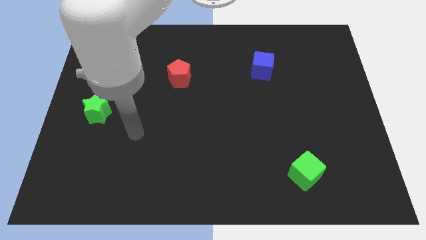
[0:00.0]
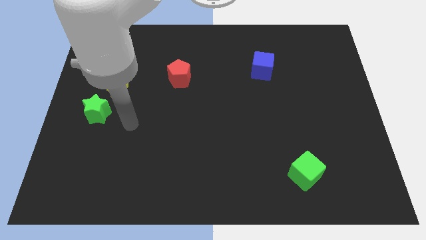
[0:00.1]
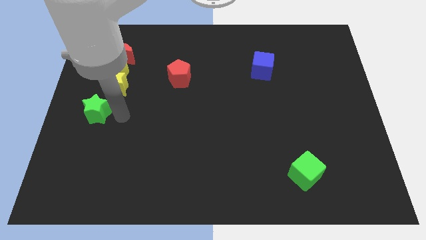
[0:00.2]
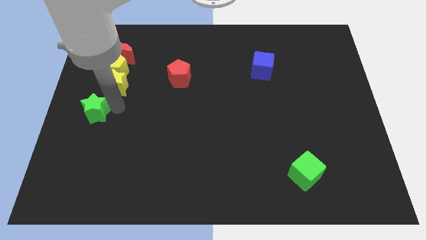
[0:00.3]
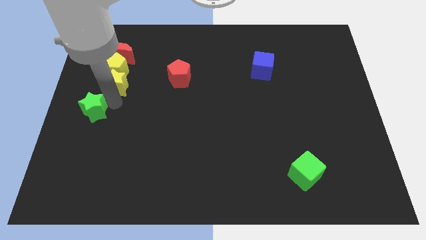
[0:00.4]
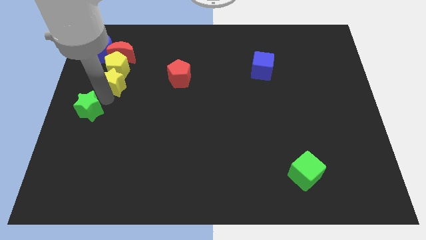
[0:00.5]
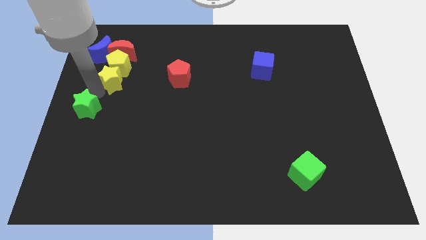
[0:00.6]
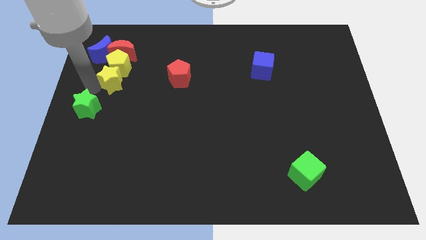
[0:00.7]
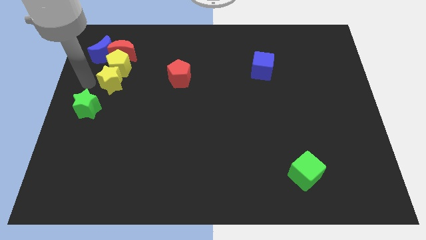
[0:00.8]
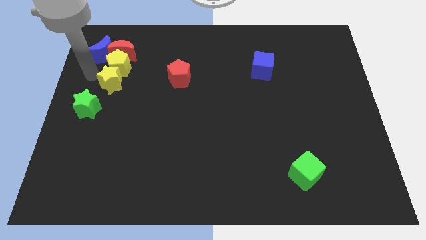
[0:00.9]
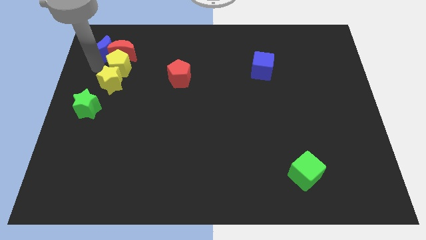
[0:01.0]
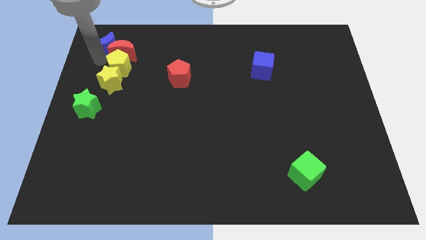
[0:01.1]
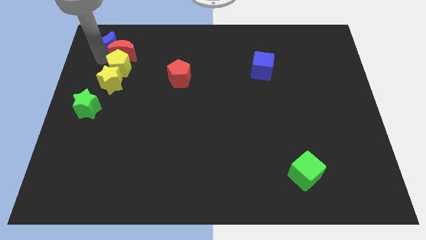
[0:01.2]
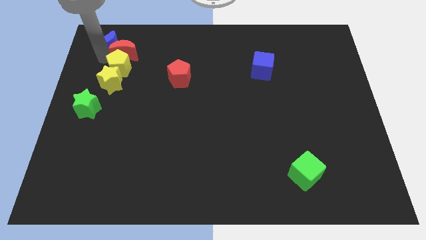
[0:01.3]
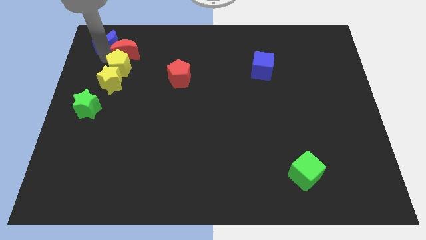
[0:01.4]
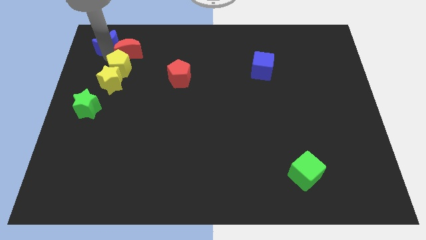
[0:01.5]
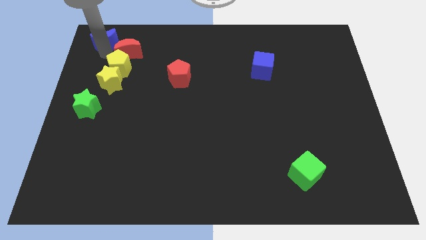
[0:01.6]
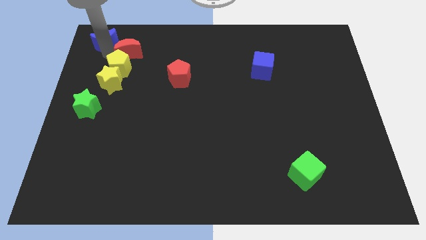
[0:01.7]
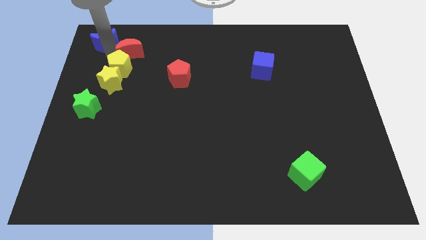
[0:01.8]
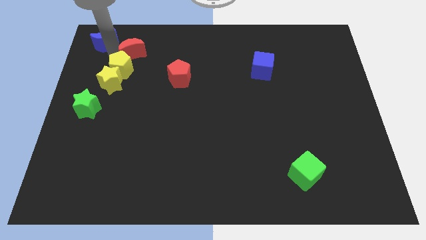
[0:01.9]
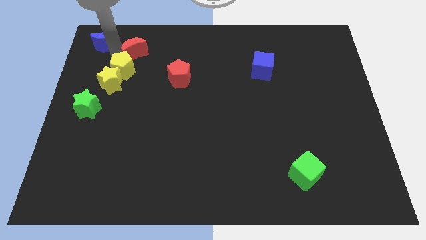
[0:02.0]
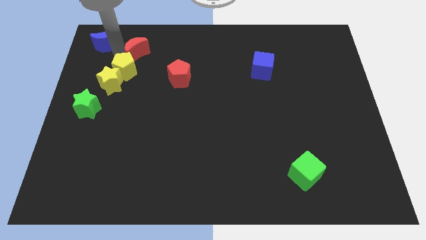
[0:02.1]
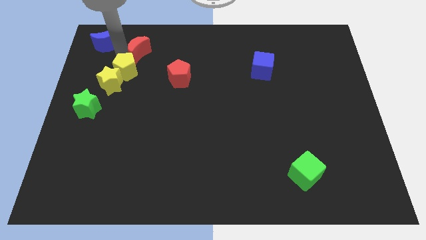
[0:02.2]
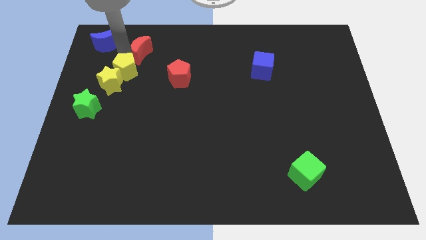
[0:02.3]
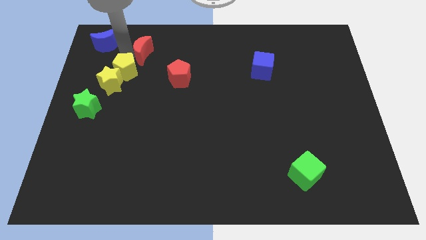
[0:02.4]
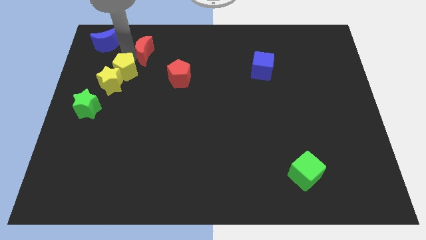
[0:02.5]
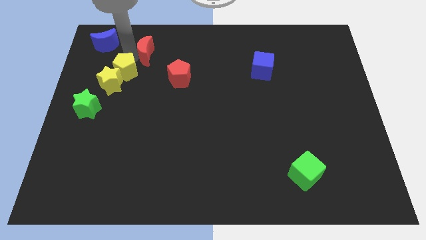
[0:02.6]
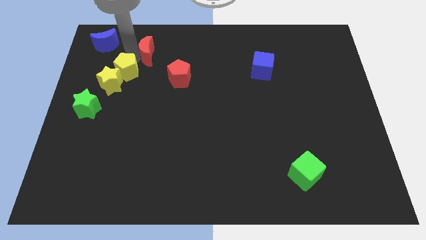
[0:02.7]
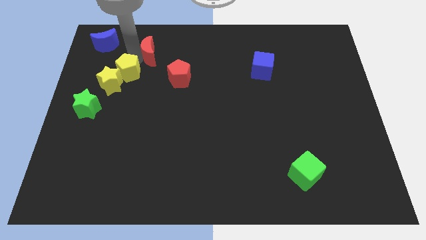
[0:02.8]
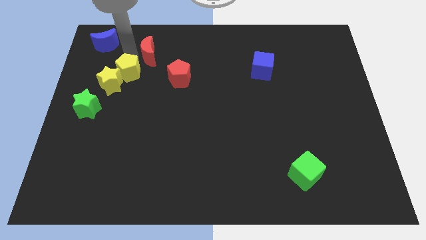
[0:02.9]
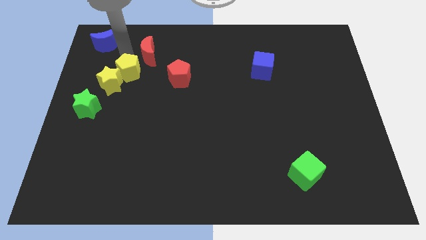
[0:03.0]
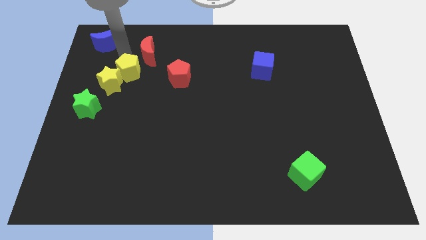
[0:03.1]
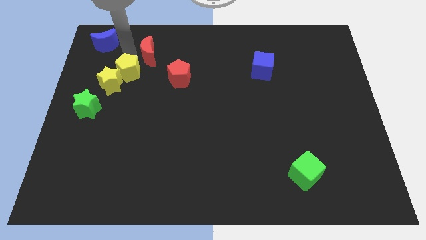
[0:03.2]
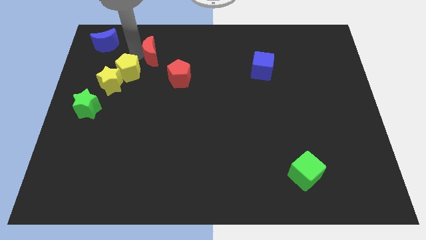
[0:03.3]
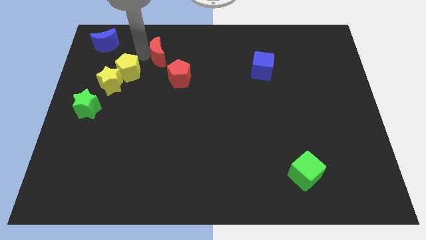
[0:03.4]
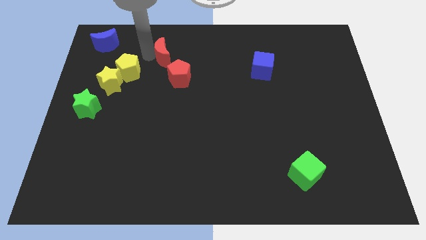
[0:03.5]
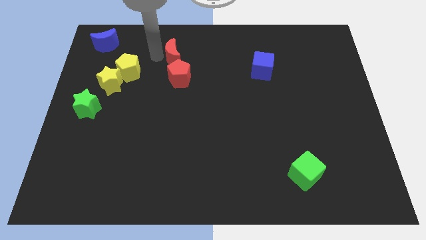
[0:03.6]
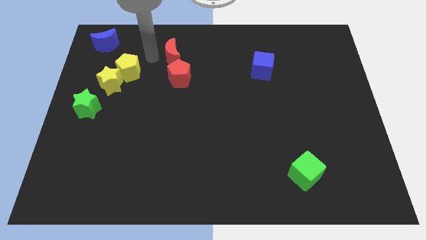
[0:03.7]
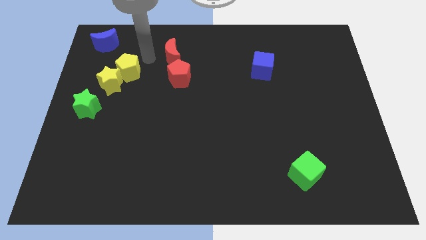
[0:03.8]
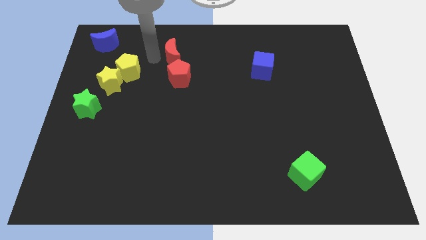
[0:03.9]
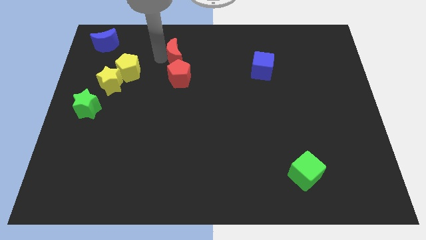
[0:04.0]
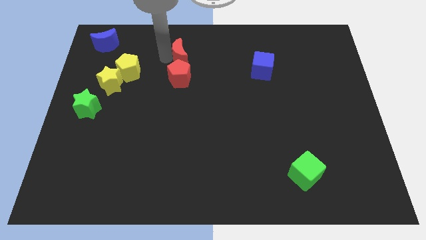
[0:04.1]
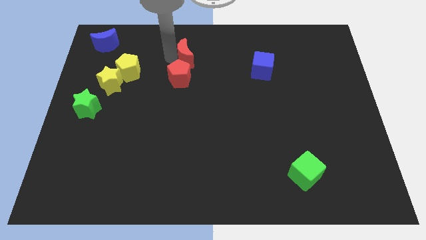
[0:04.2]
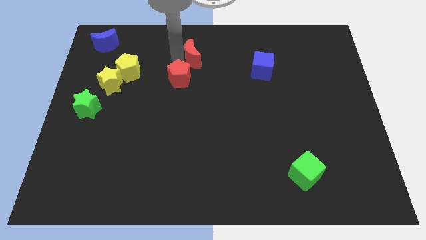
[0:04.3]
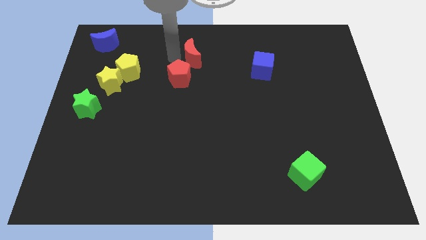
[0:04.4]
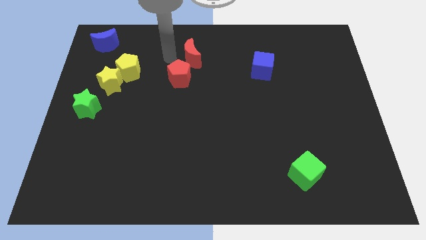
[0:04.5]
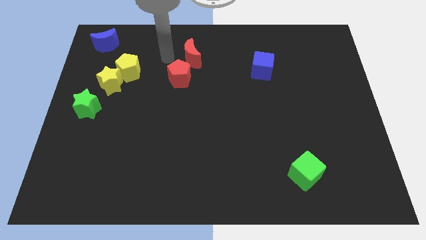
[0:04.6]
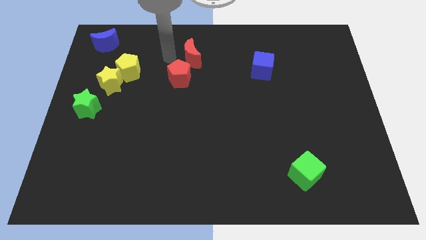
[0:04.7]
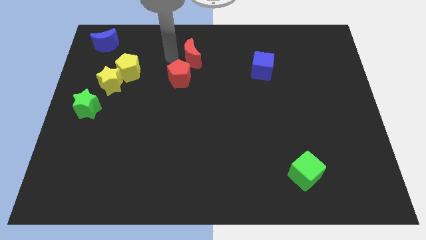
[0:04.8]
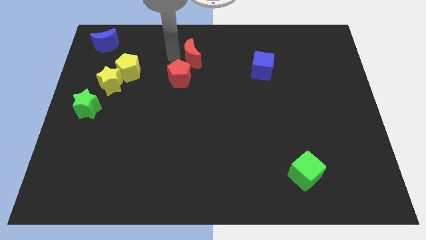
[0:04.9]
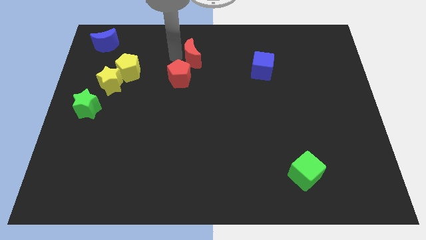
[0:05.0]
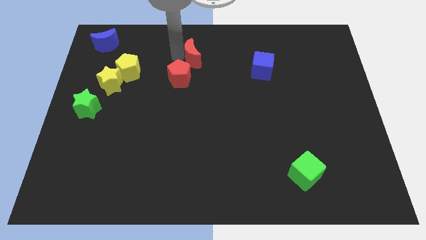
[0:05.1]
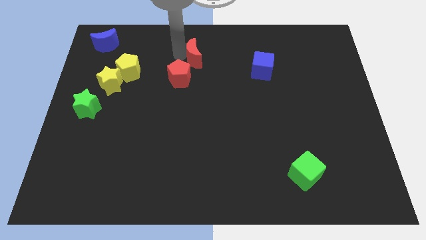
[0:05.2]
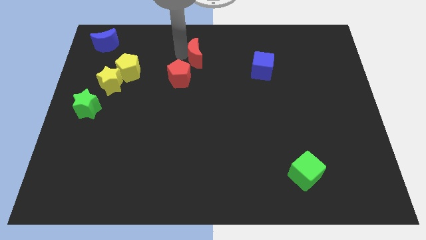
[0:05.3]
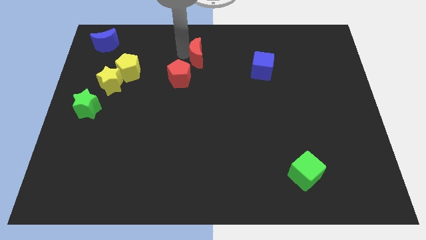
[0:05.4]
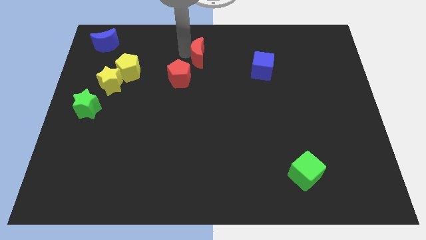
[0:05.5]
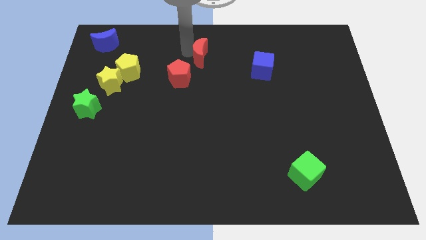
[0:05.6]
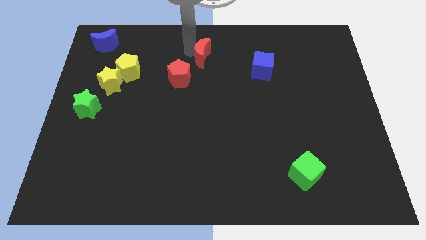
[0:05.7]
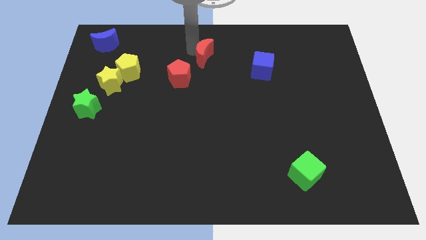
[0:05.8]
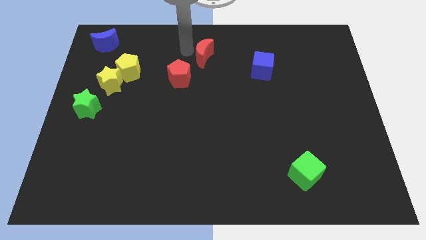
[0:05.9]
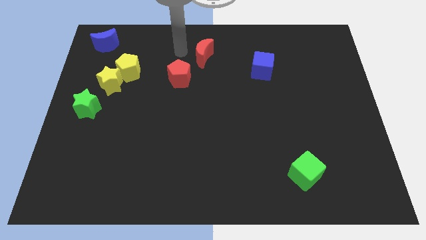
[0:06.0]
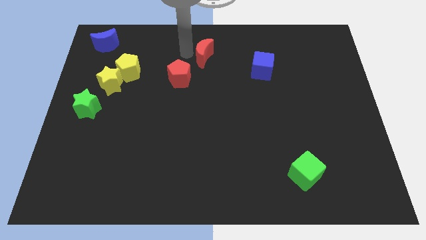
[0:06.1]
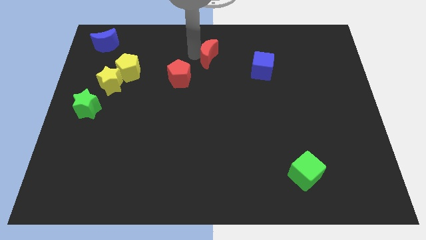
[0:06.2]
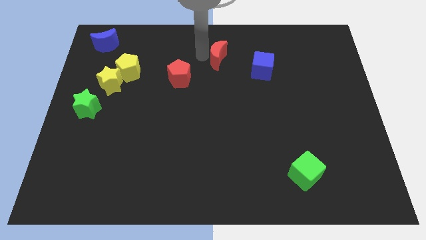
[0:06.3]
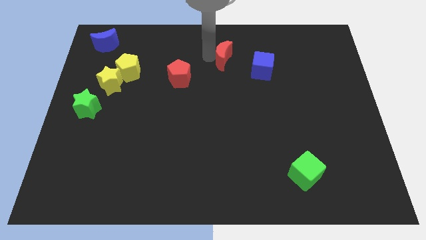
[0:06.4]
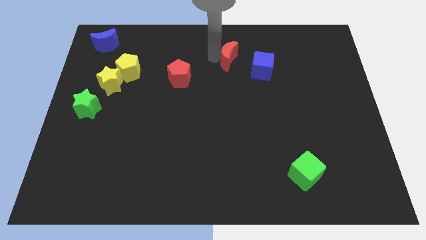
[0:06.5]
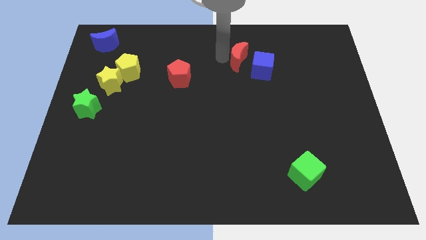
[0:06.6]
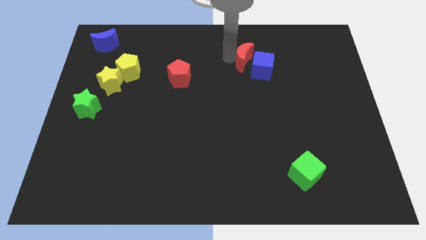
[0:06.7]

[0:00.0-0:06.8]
slide the red moon towards the blue cube
